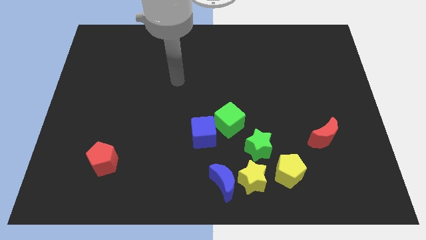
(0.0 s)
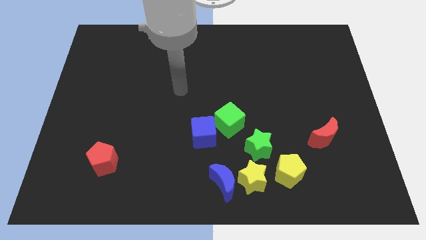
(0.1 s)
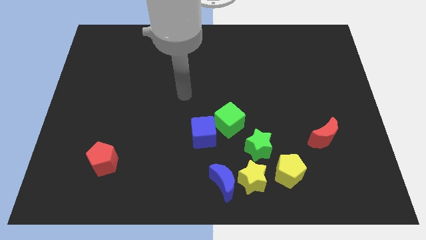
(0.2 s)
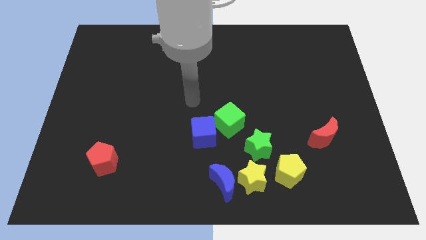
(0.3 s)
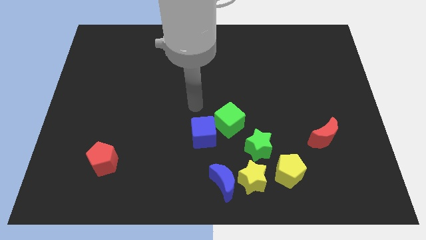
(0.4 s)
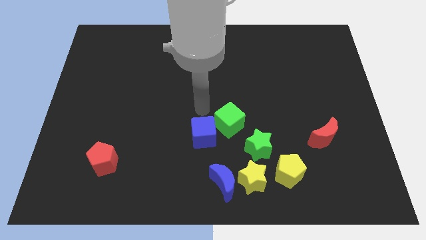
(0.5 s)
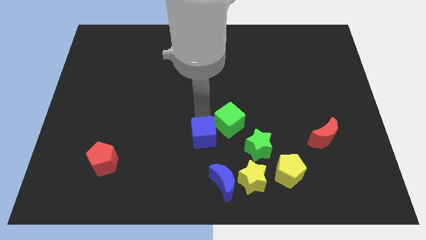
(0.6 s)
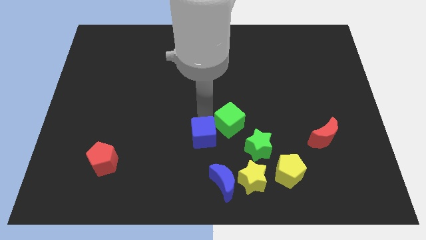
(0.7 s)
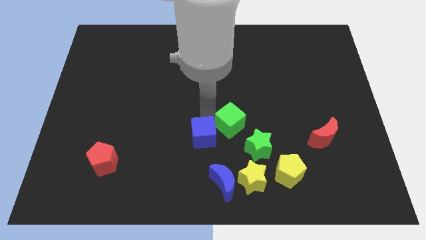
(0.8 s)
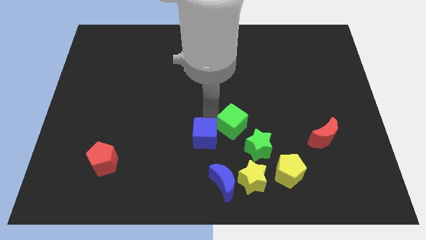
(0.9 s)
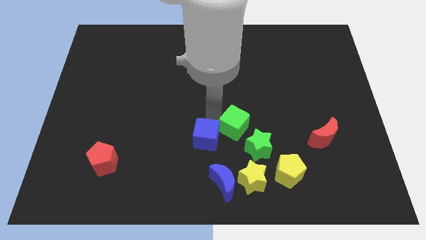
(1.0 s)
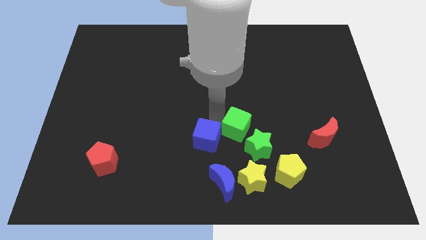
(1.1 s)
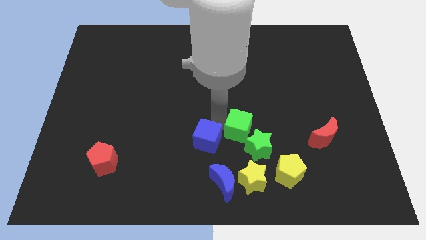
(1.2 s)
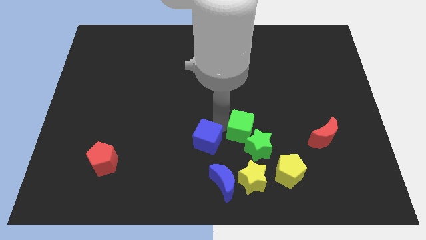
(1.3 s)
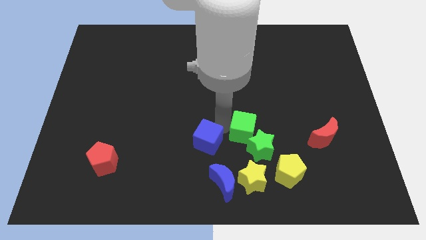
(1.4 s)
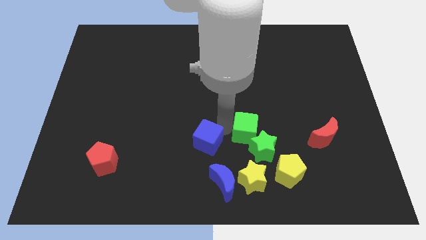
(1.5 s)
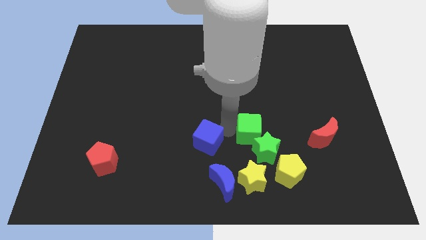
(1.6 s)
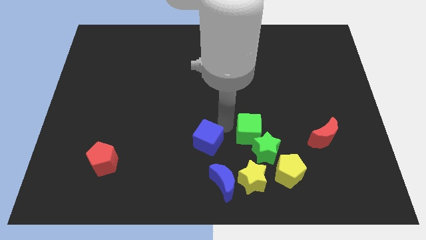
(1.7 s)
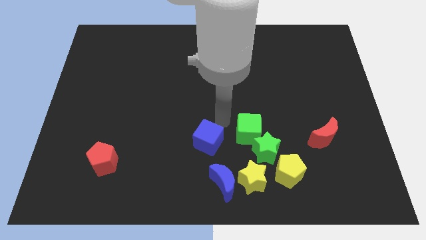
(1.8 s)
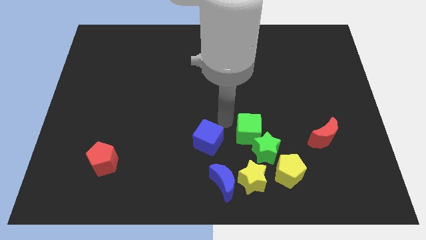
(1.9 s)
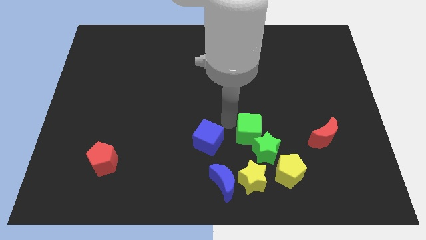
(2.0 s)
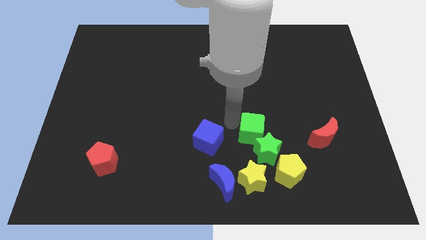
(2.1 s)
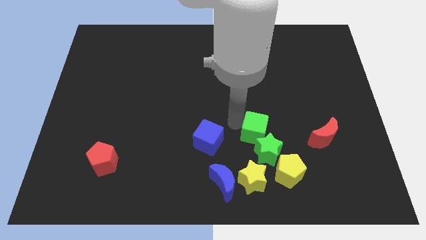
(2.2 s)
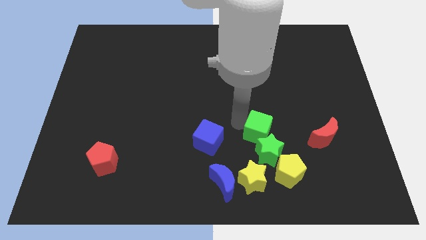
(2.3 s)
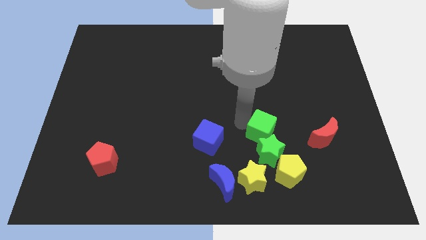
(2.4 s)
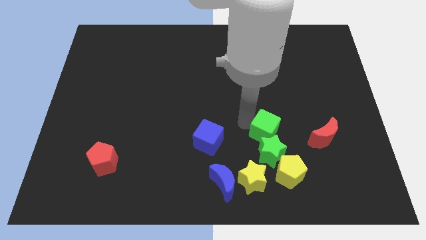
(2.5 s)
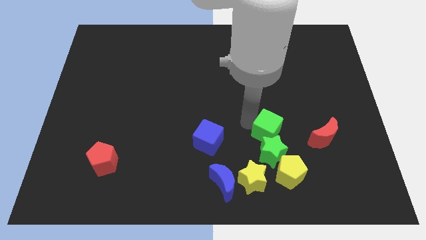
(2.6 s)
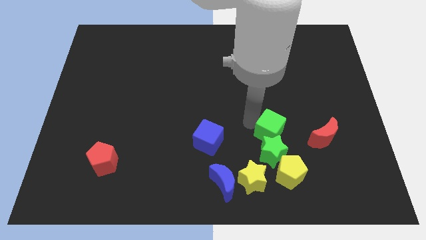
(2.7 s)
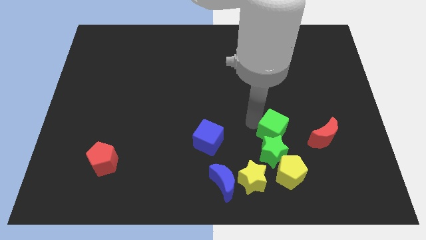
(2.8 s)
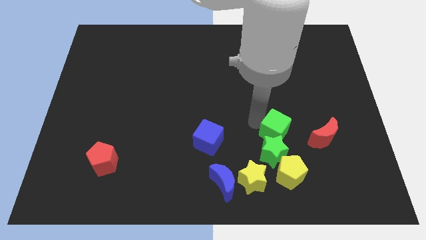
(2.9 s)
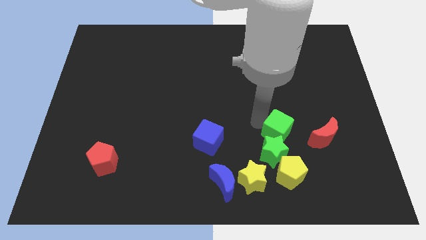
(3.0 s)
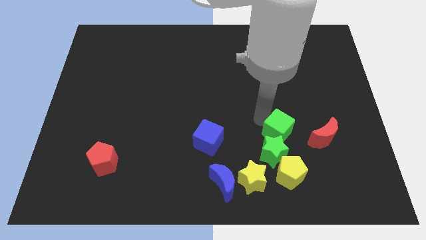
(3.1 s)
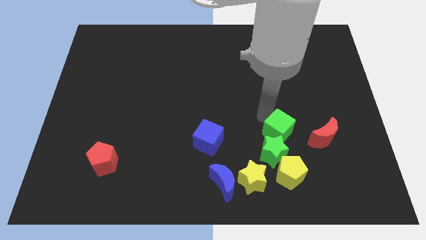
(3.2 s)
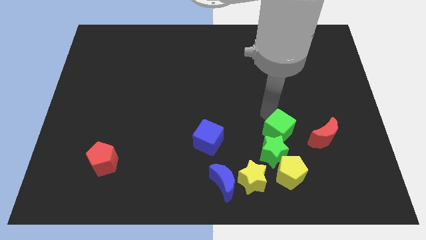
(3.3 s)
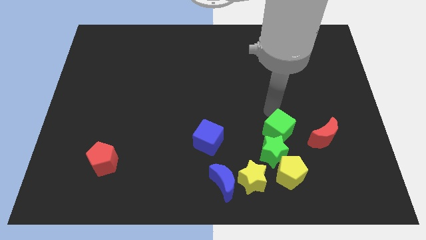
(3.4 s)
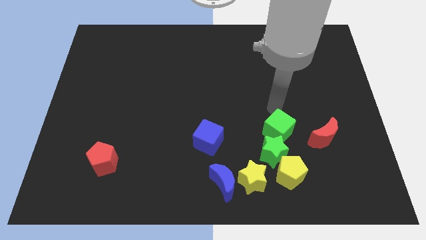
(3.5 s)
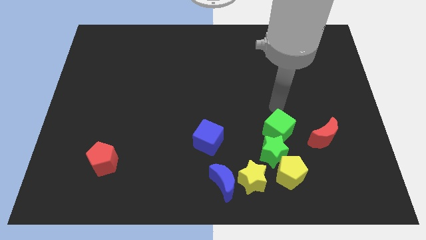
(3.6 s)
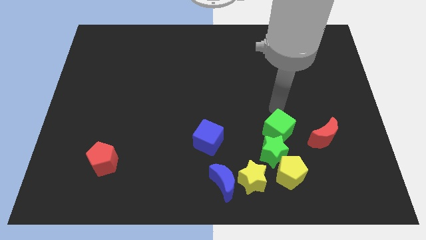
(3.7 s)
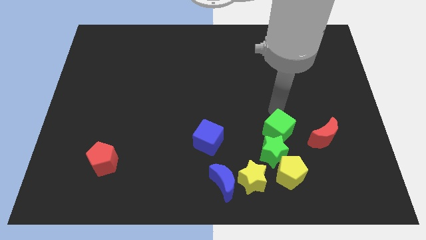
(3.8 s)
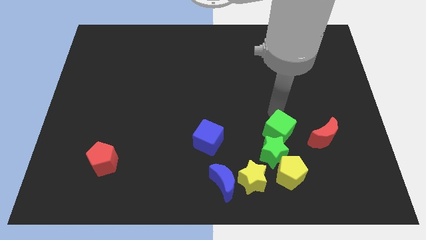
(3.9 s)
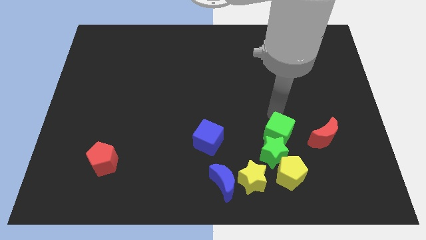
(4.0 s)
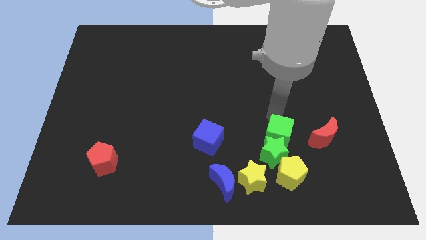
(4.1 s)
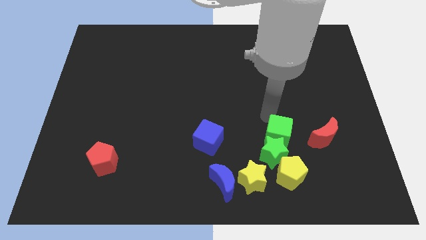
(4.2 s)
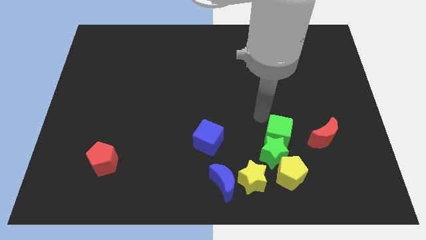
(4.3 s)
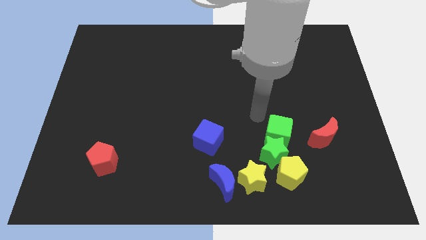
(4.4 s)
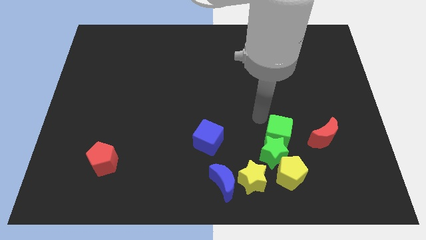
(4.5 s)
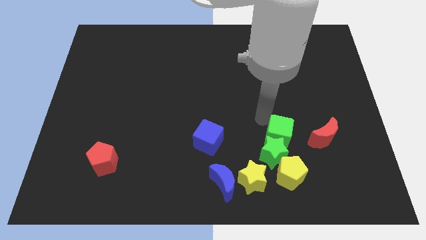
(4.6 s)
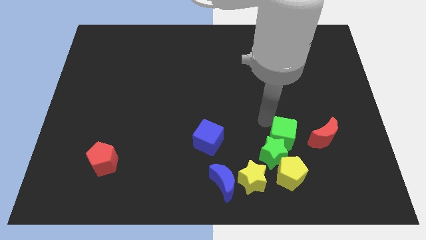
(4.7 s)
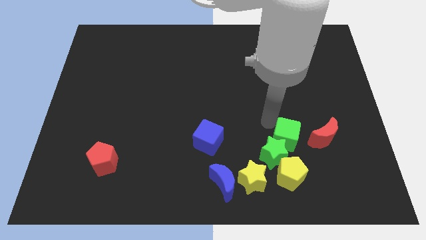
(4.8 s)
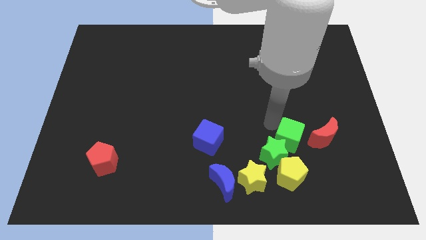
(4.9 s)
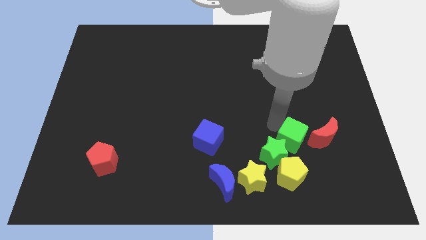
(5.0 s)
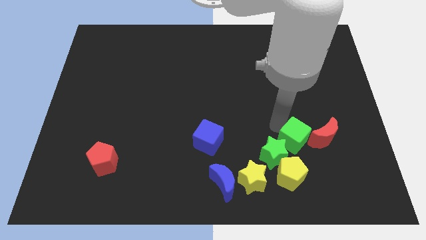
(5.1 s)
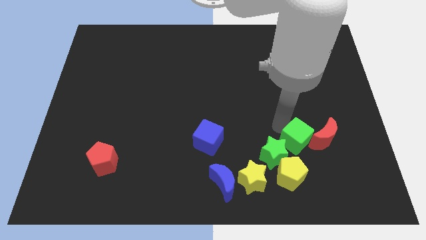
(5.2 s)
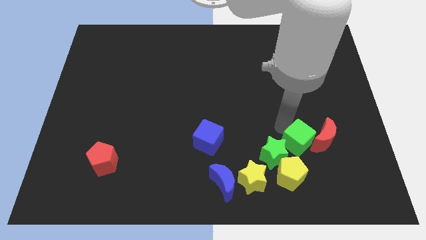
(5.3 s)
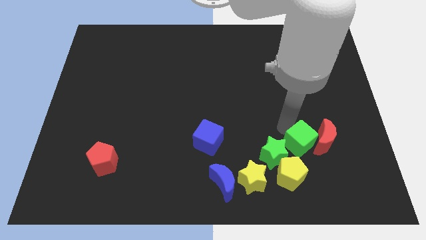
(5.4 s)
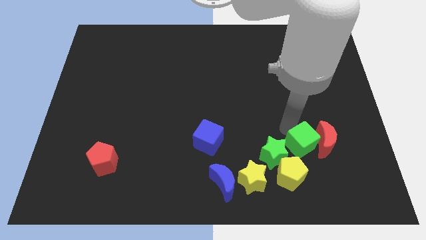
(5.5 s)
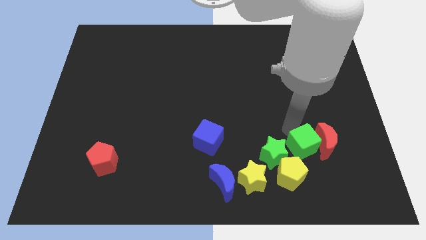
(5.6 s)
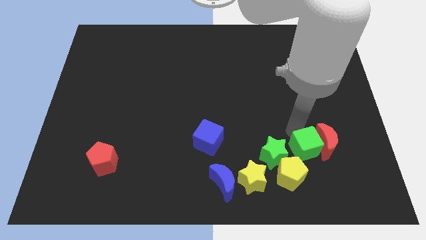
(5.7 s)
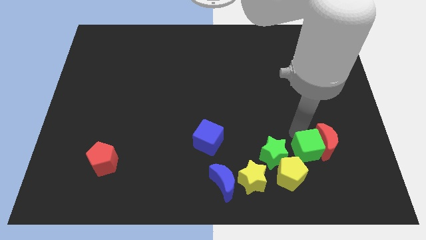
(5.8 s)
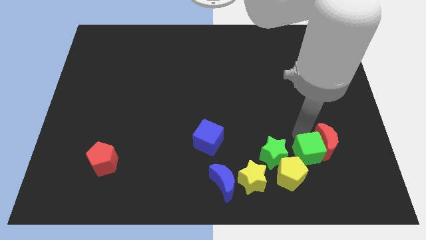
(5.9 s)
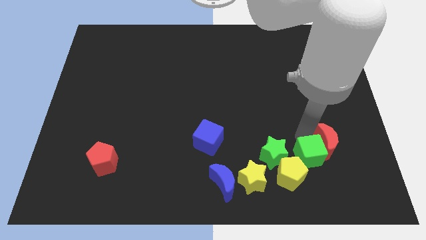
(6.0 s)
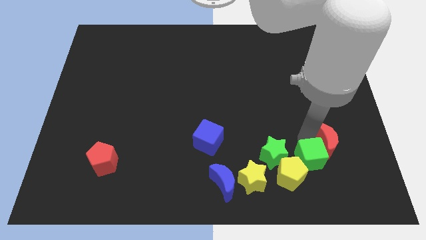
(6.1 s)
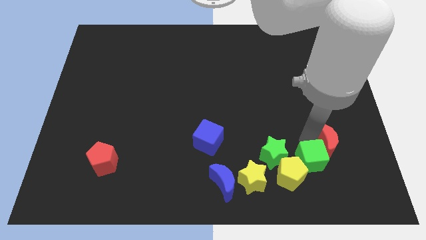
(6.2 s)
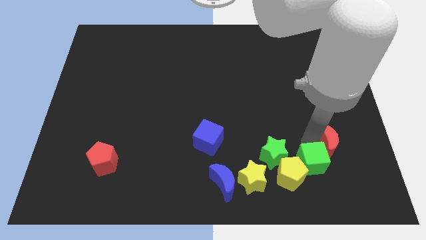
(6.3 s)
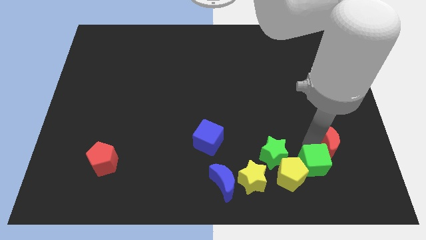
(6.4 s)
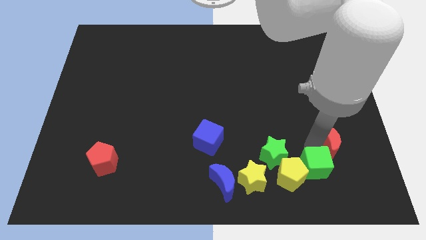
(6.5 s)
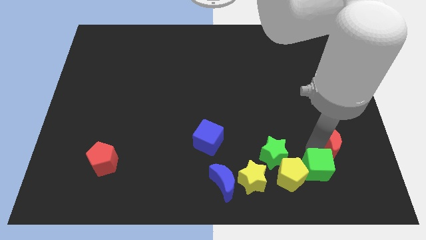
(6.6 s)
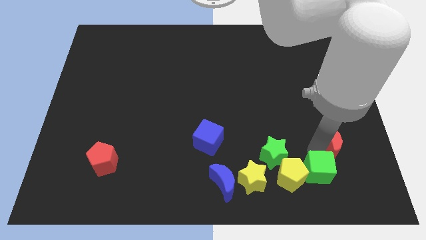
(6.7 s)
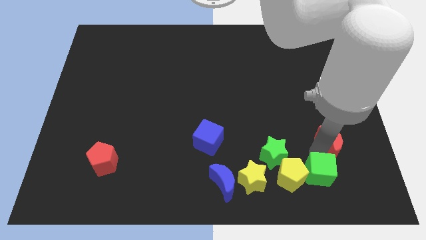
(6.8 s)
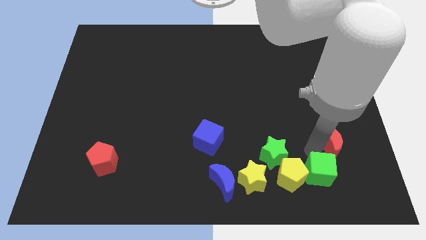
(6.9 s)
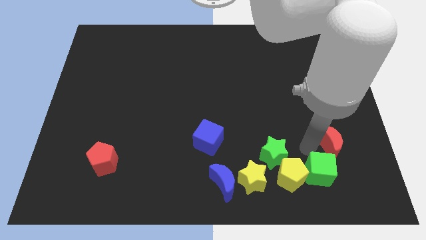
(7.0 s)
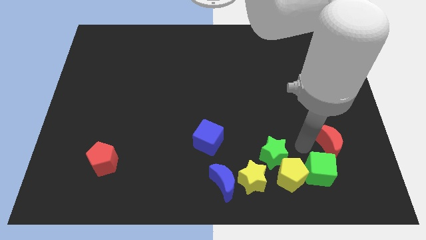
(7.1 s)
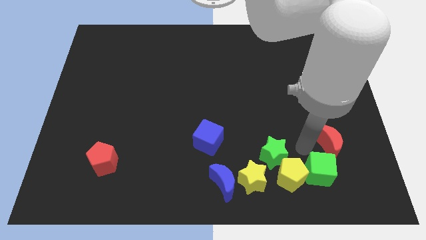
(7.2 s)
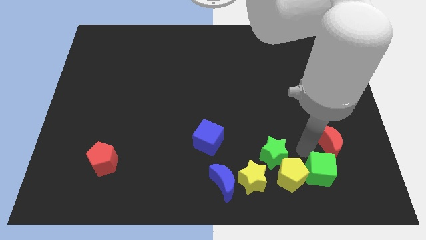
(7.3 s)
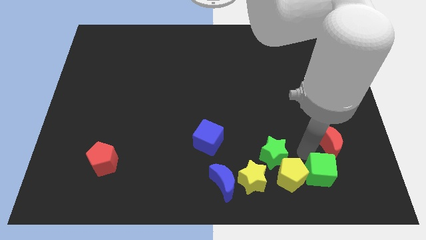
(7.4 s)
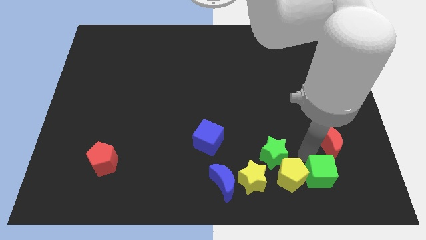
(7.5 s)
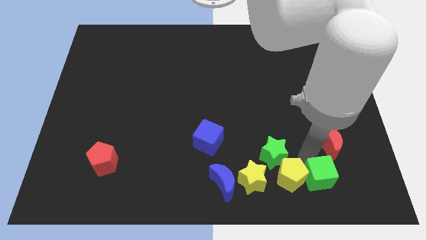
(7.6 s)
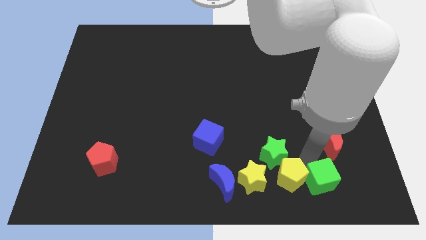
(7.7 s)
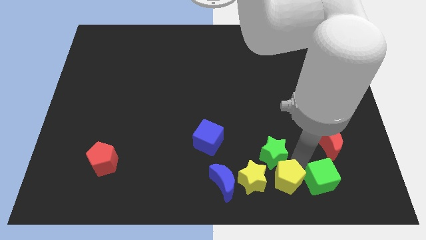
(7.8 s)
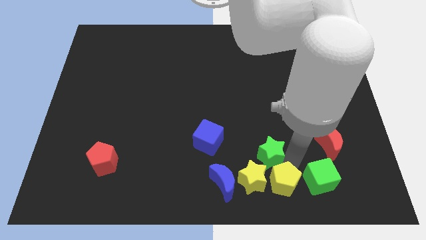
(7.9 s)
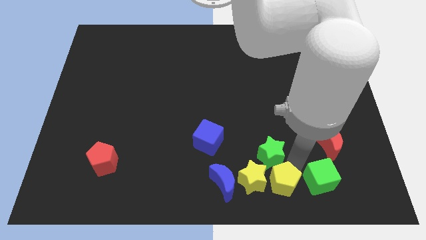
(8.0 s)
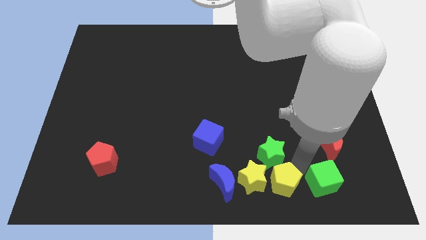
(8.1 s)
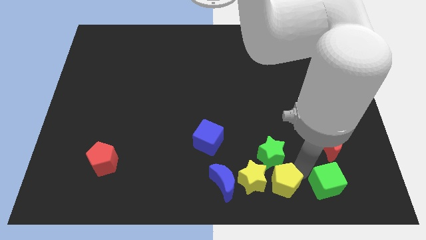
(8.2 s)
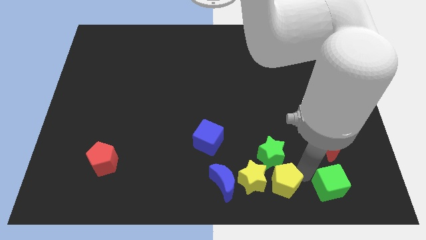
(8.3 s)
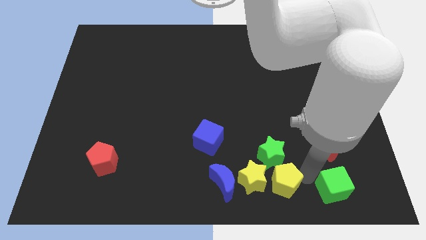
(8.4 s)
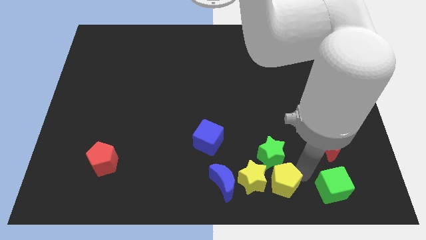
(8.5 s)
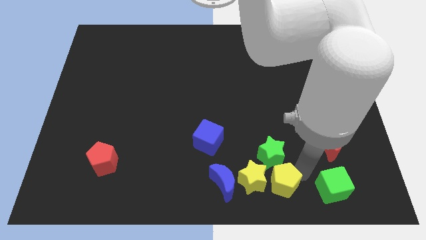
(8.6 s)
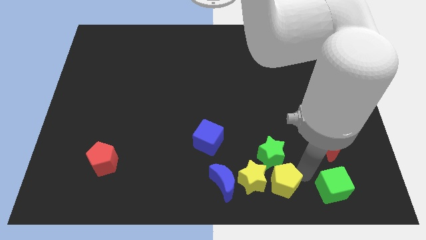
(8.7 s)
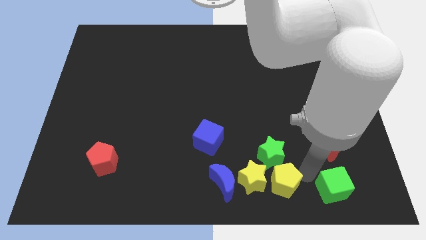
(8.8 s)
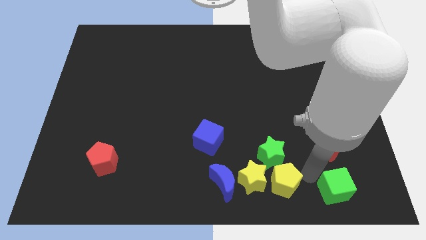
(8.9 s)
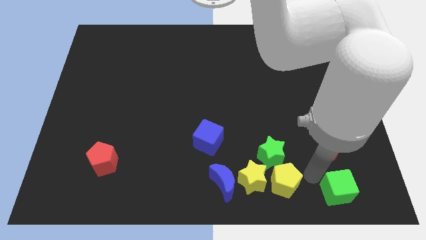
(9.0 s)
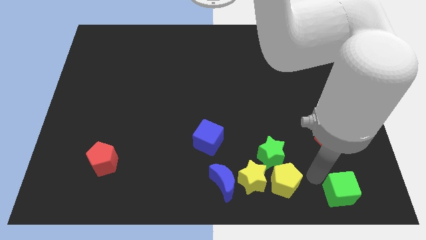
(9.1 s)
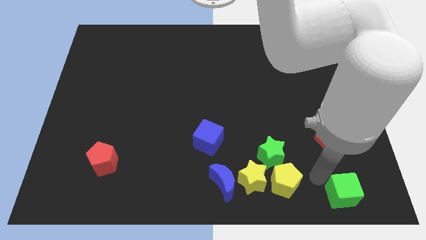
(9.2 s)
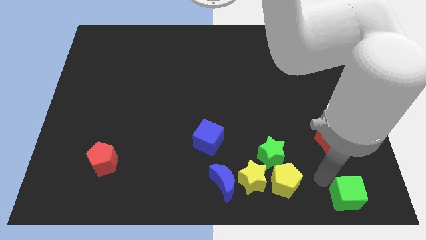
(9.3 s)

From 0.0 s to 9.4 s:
move the green cube to the bottom right
